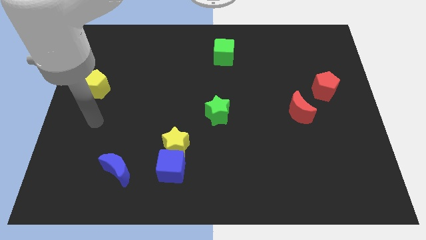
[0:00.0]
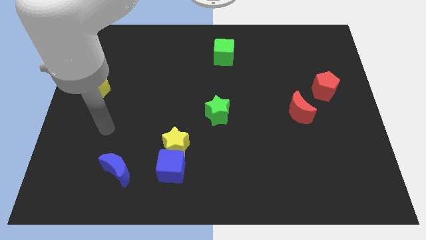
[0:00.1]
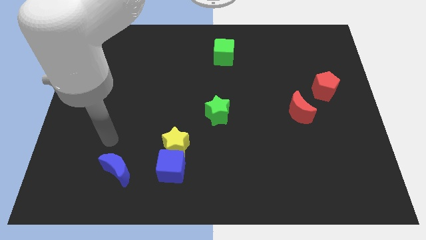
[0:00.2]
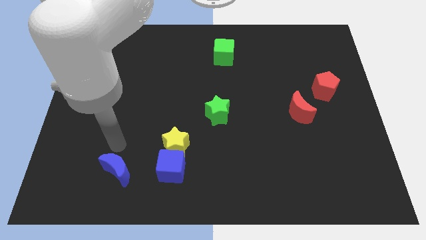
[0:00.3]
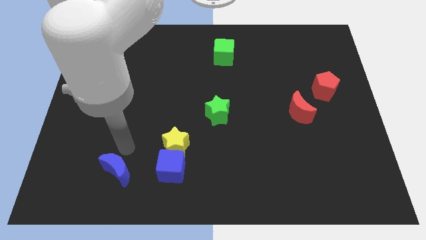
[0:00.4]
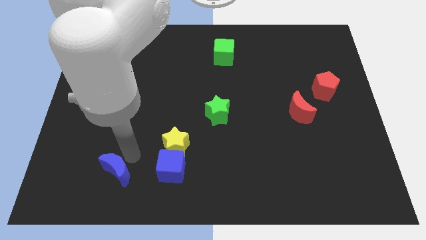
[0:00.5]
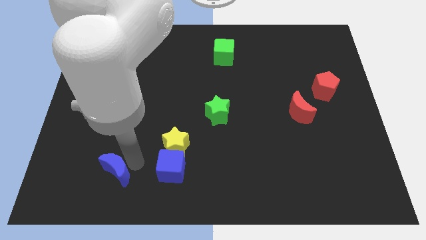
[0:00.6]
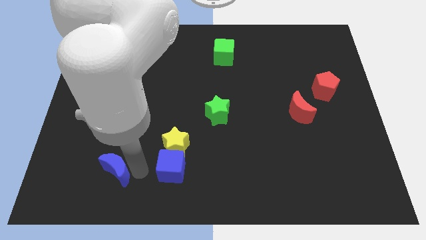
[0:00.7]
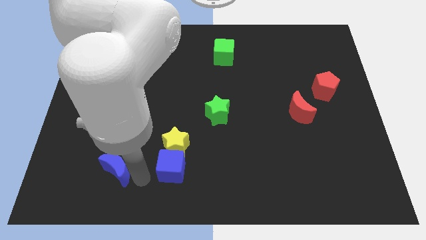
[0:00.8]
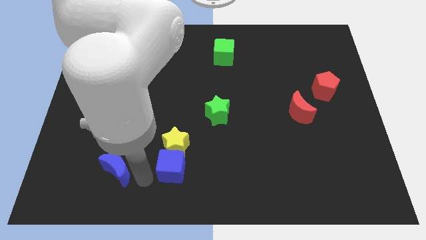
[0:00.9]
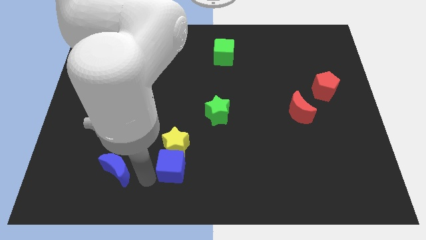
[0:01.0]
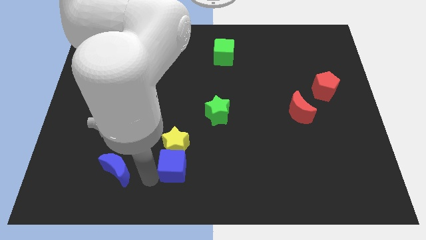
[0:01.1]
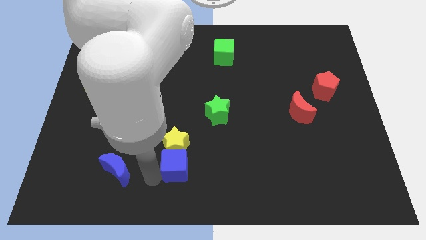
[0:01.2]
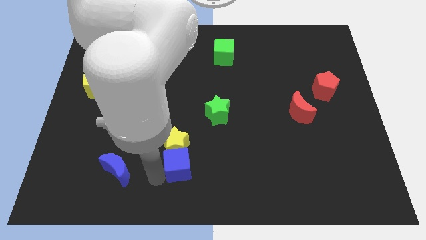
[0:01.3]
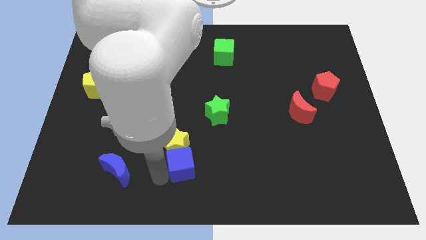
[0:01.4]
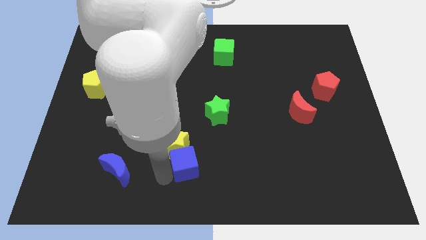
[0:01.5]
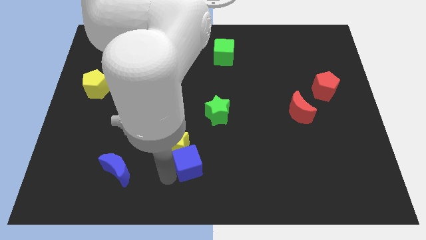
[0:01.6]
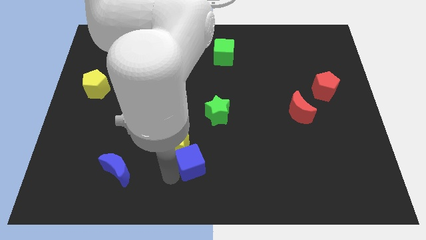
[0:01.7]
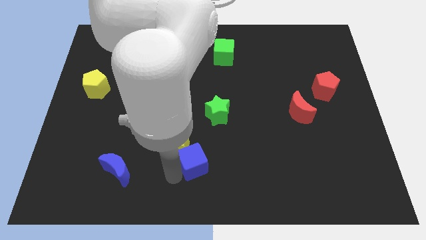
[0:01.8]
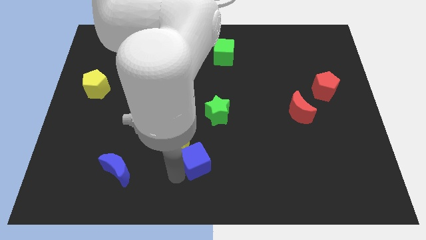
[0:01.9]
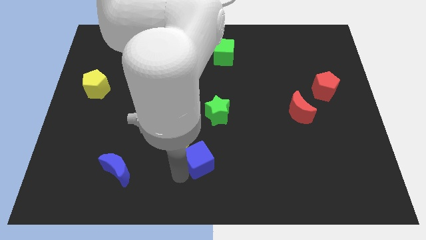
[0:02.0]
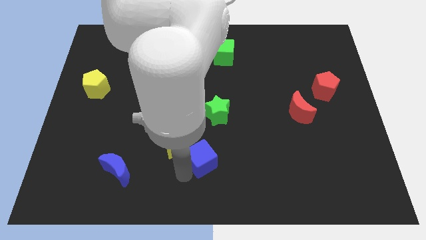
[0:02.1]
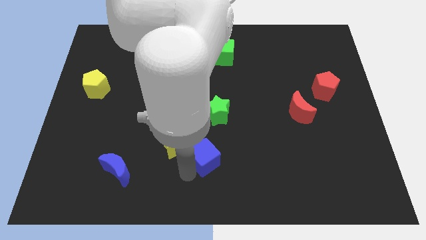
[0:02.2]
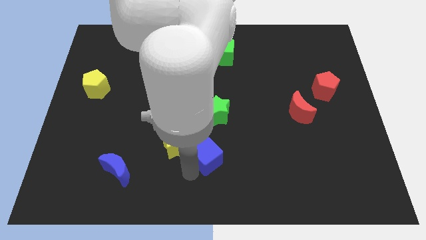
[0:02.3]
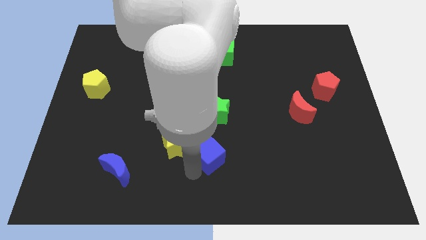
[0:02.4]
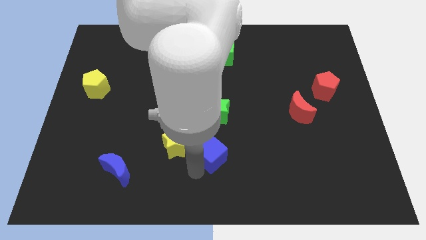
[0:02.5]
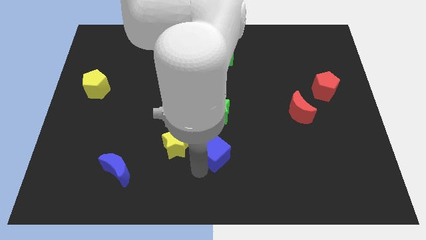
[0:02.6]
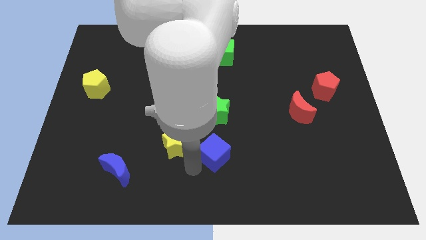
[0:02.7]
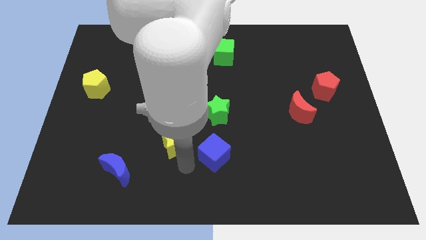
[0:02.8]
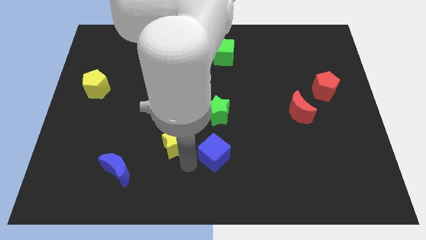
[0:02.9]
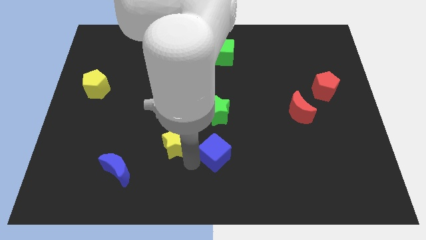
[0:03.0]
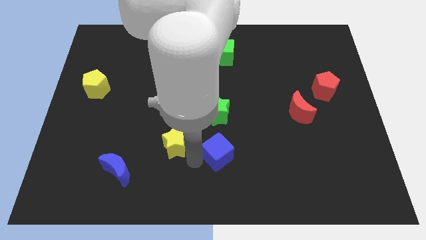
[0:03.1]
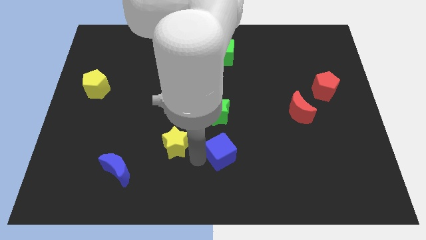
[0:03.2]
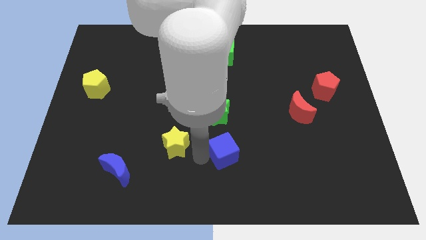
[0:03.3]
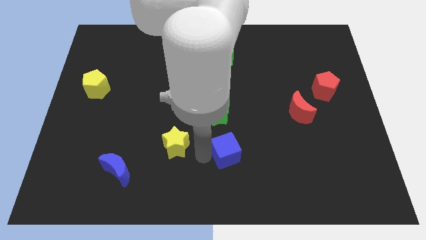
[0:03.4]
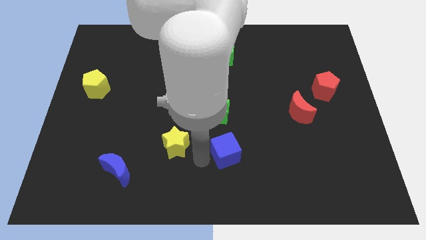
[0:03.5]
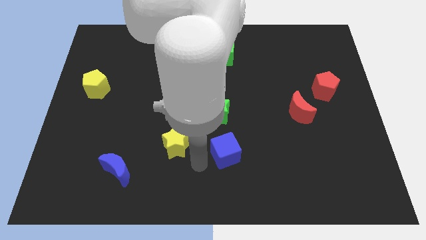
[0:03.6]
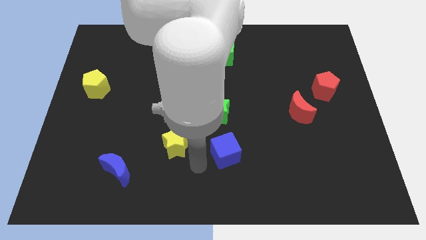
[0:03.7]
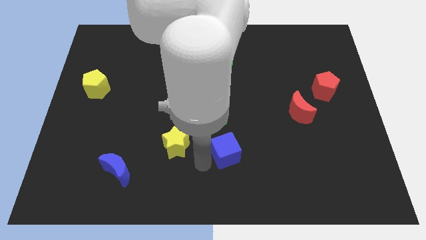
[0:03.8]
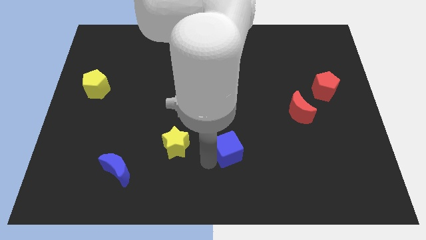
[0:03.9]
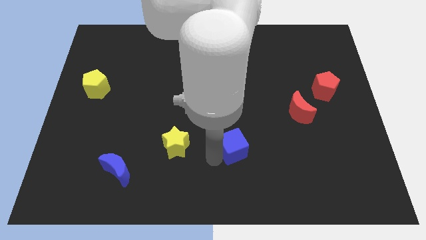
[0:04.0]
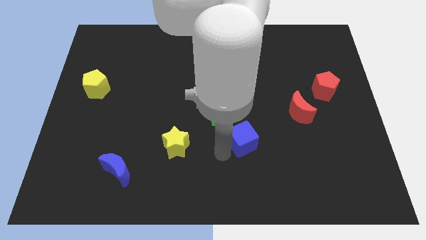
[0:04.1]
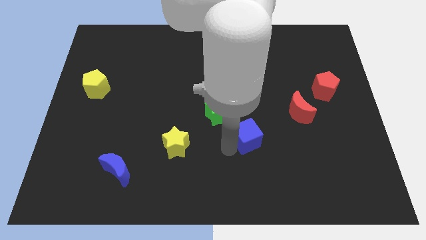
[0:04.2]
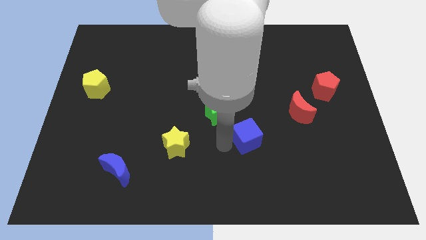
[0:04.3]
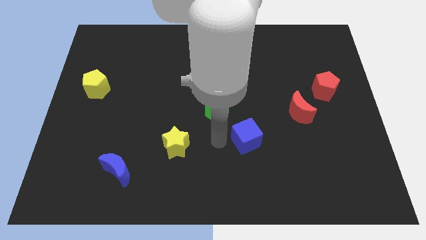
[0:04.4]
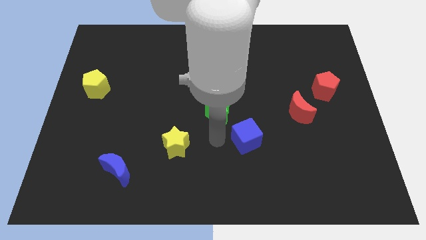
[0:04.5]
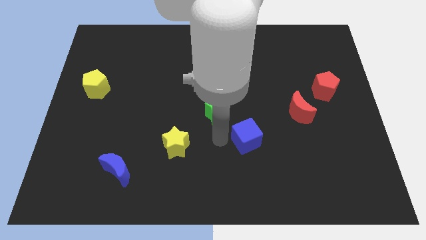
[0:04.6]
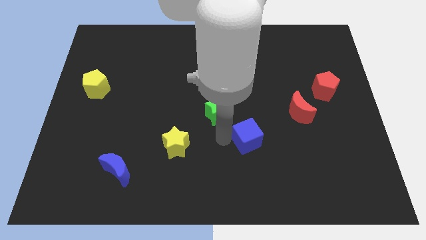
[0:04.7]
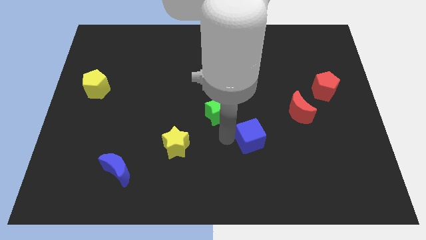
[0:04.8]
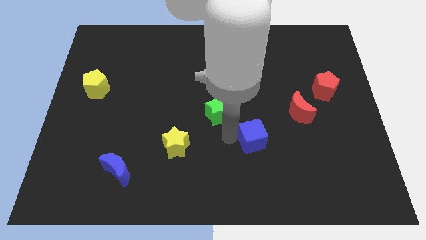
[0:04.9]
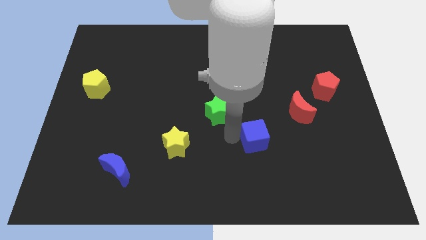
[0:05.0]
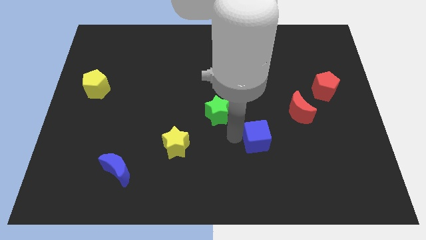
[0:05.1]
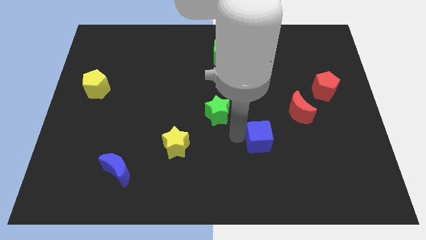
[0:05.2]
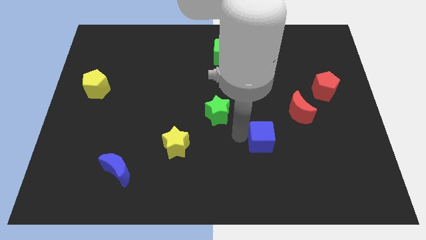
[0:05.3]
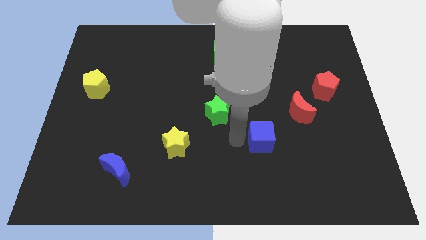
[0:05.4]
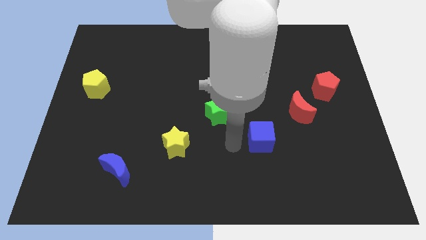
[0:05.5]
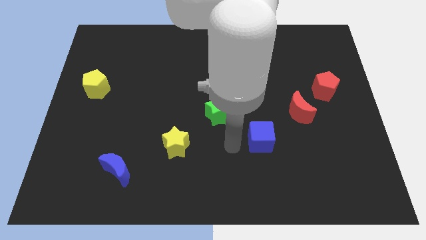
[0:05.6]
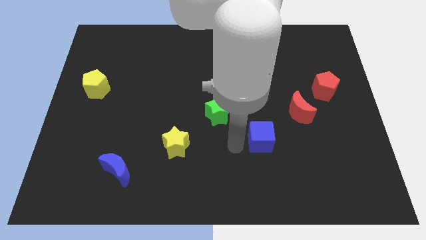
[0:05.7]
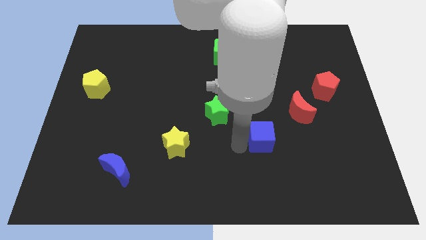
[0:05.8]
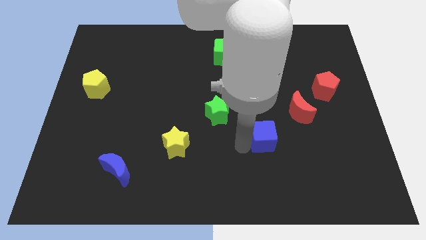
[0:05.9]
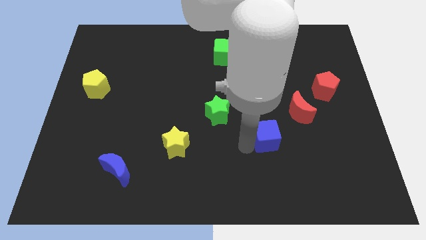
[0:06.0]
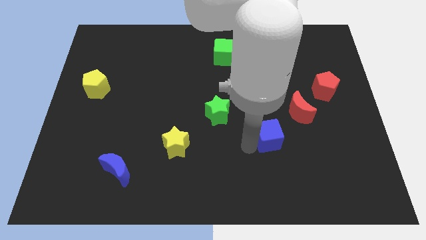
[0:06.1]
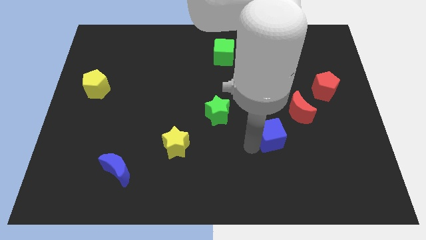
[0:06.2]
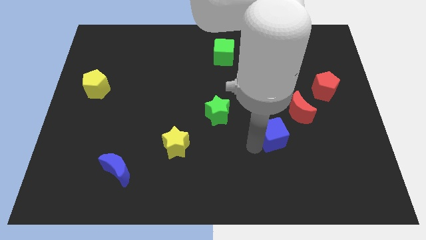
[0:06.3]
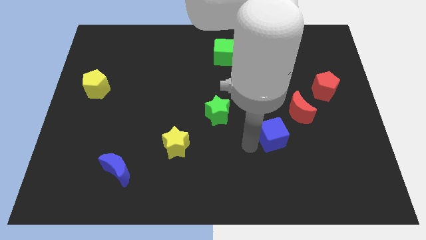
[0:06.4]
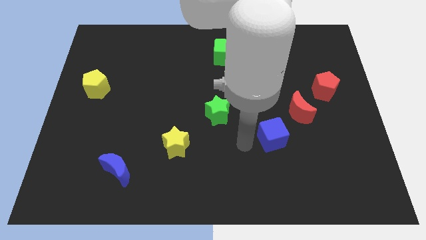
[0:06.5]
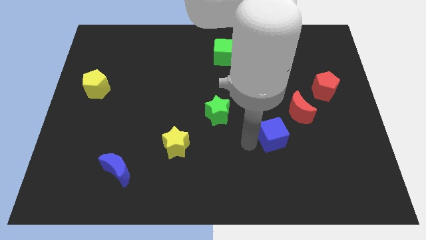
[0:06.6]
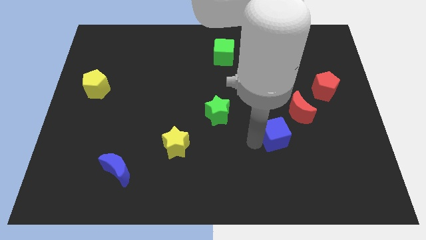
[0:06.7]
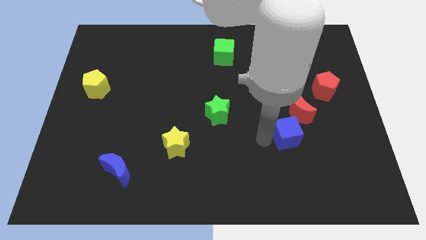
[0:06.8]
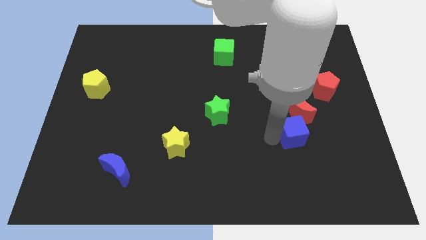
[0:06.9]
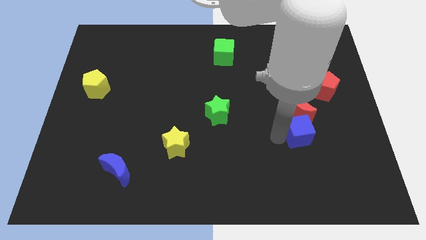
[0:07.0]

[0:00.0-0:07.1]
push the blue cube to the bottom right side of the red moon

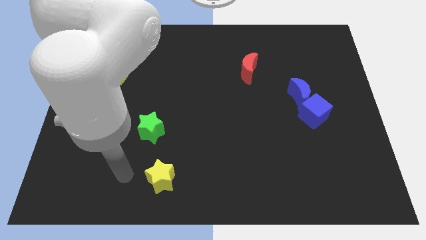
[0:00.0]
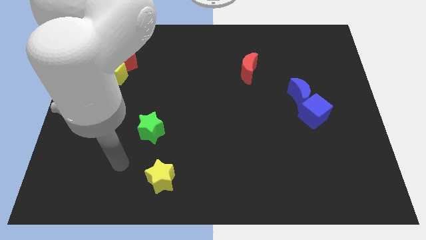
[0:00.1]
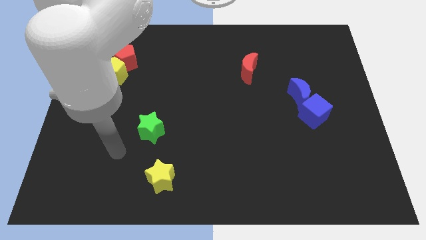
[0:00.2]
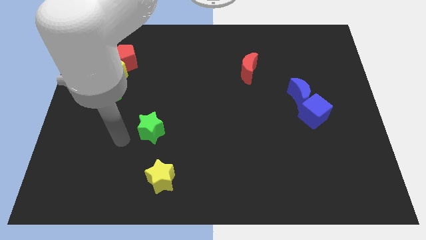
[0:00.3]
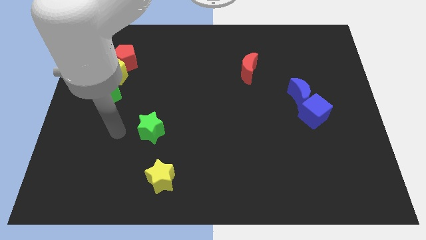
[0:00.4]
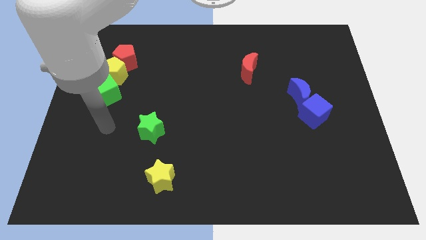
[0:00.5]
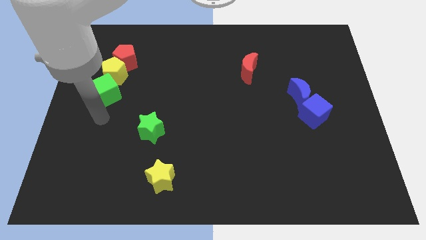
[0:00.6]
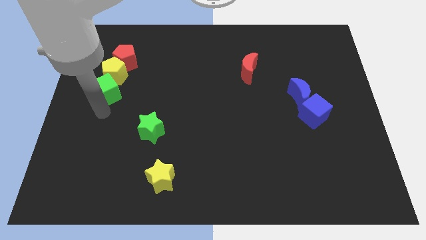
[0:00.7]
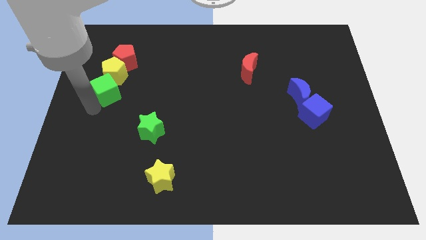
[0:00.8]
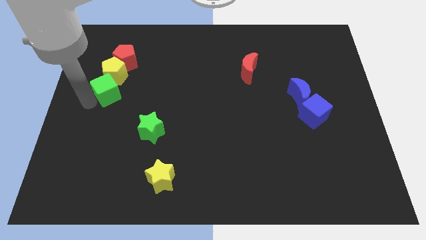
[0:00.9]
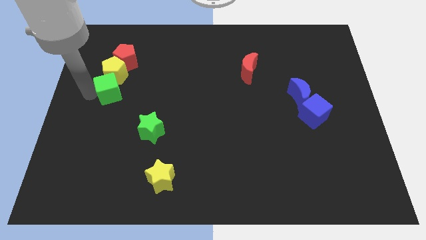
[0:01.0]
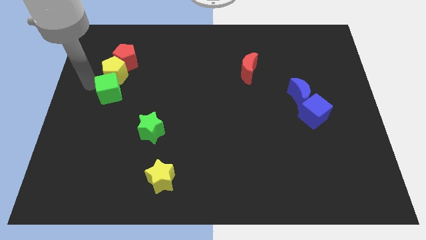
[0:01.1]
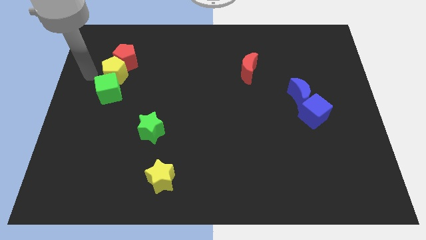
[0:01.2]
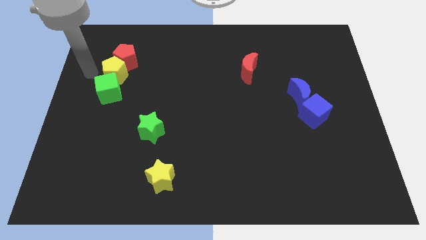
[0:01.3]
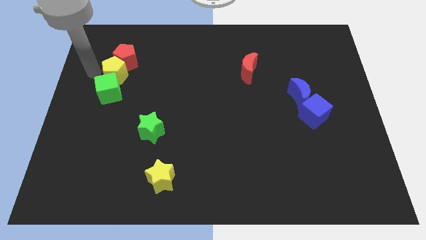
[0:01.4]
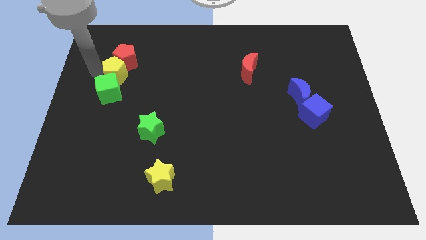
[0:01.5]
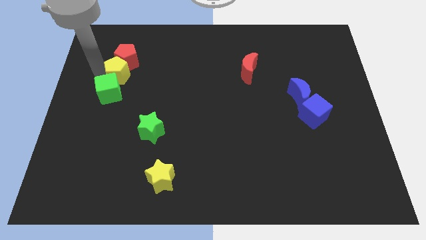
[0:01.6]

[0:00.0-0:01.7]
put the yellow pentagon to the bottom right side of the red pentagon
